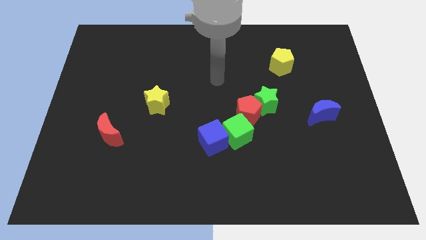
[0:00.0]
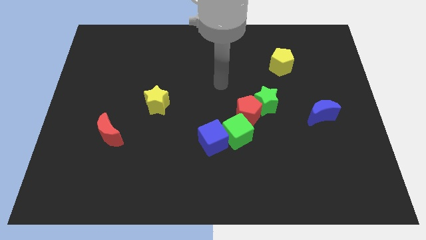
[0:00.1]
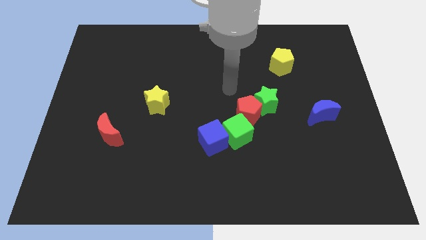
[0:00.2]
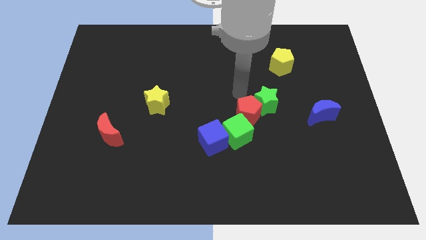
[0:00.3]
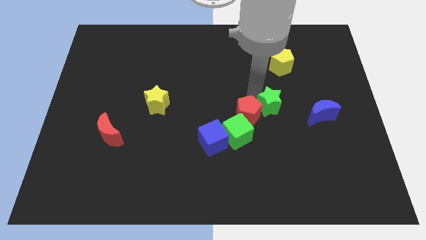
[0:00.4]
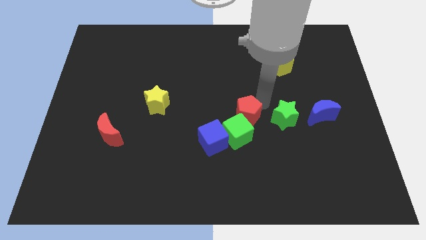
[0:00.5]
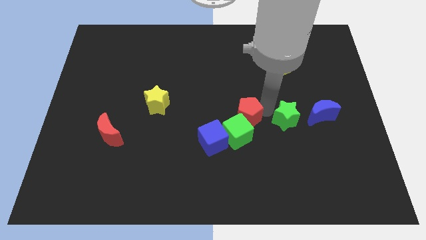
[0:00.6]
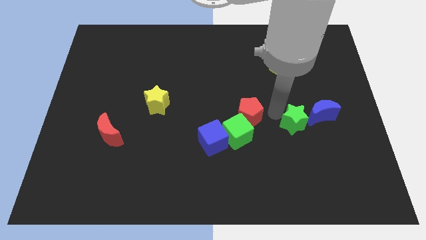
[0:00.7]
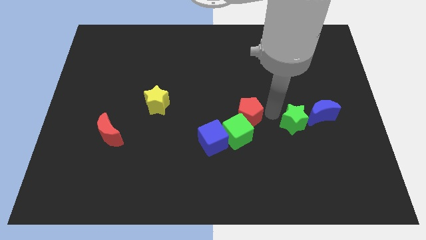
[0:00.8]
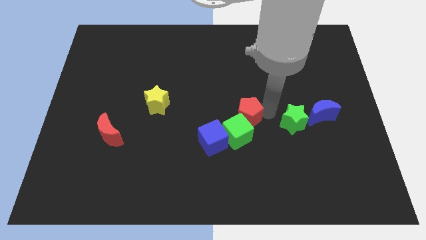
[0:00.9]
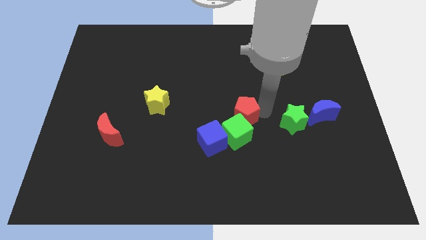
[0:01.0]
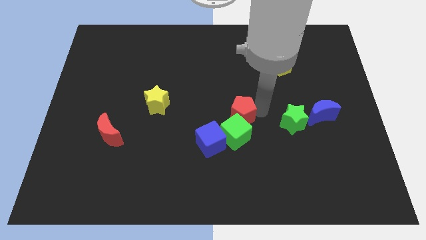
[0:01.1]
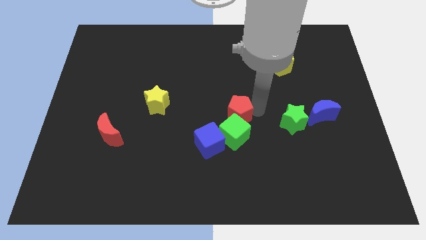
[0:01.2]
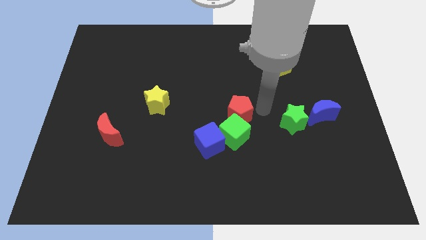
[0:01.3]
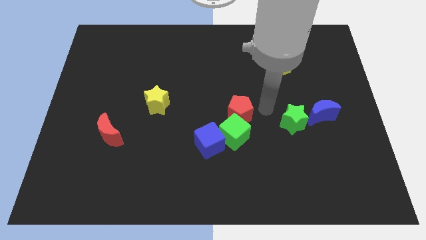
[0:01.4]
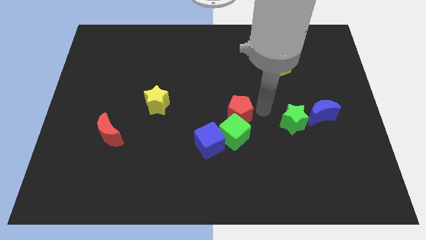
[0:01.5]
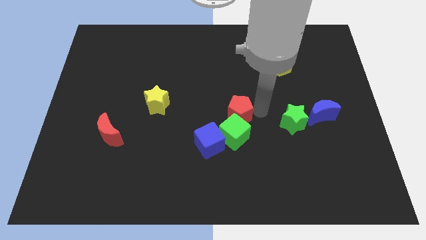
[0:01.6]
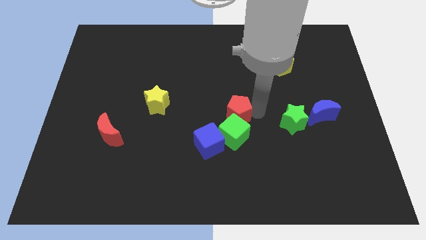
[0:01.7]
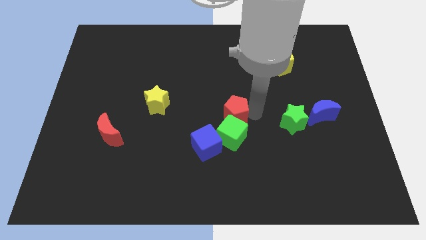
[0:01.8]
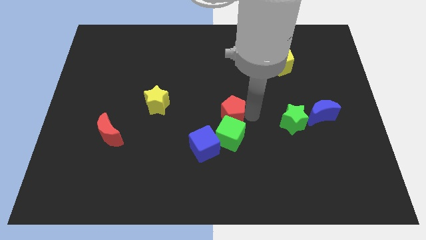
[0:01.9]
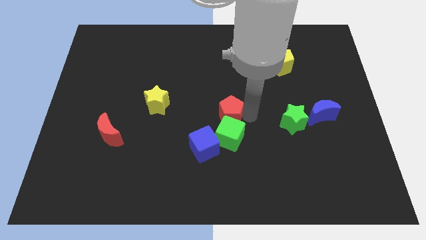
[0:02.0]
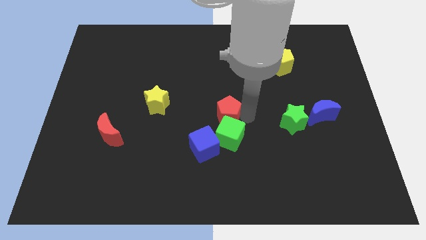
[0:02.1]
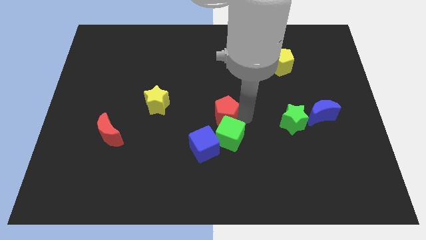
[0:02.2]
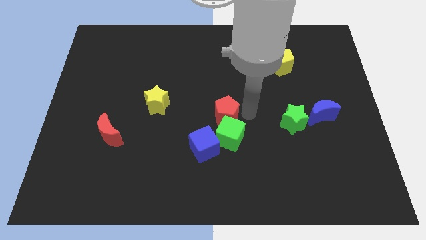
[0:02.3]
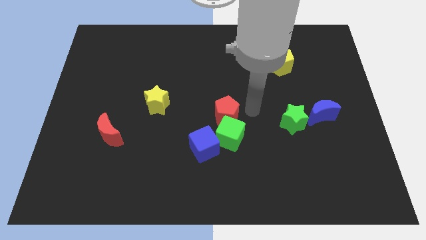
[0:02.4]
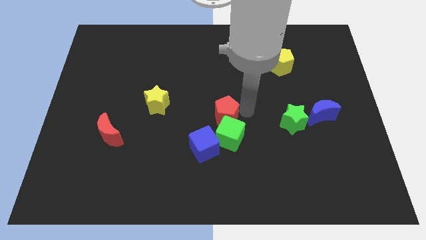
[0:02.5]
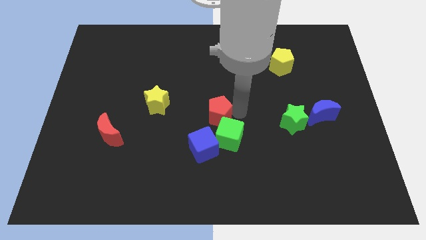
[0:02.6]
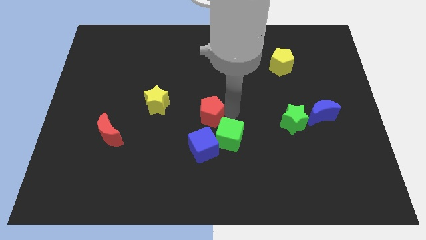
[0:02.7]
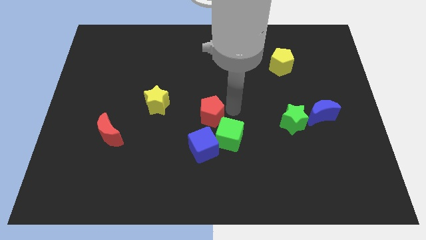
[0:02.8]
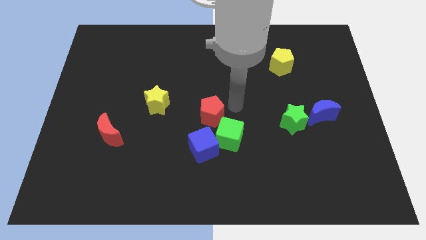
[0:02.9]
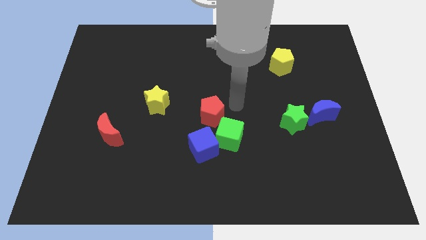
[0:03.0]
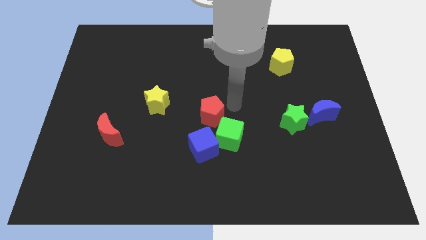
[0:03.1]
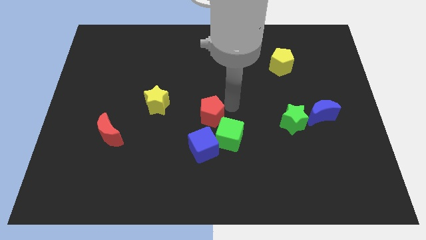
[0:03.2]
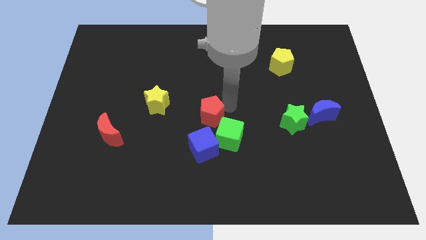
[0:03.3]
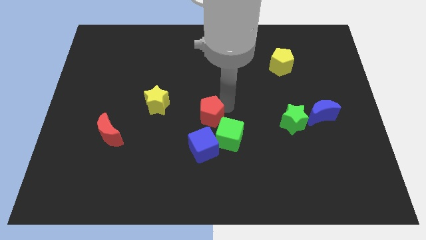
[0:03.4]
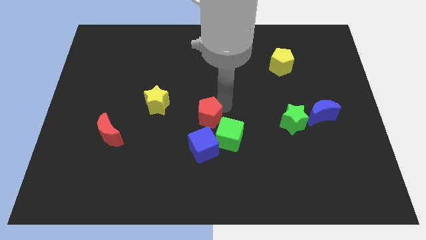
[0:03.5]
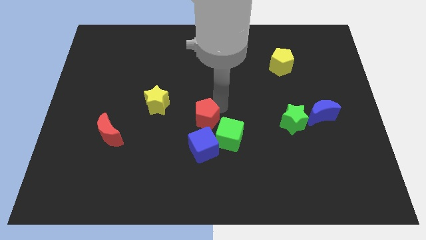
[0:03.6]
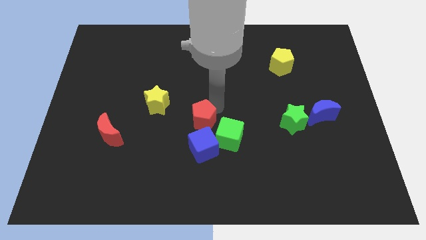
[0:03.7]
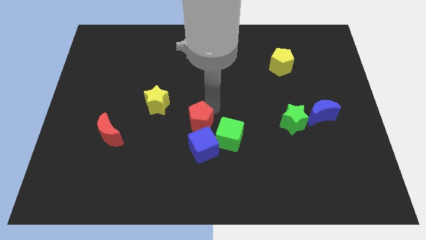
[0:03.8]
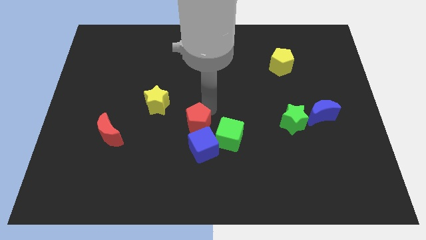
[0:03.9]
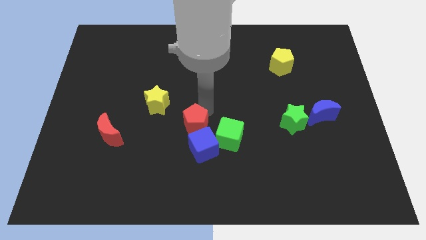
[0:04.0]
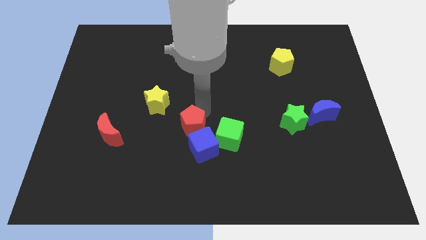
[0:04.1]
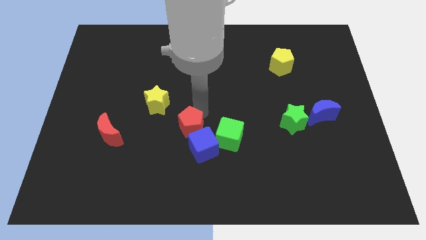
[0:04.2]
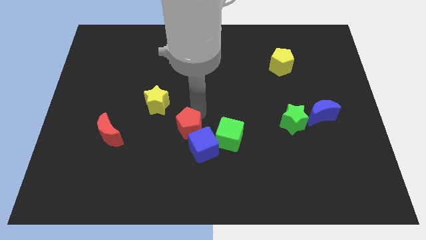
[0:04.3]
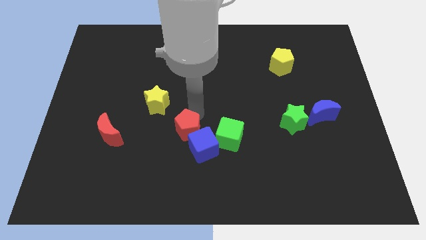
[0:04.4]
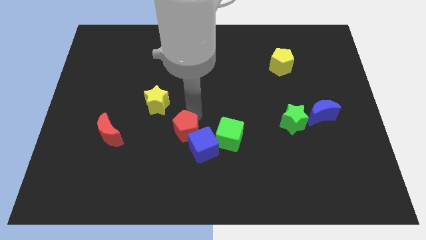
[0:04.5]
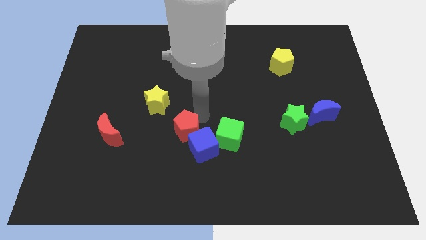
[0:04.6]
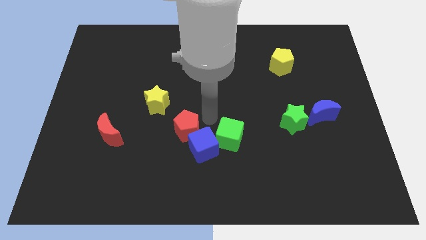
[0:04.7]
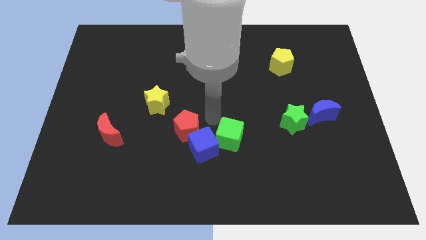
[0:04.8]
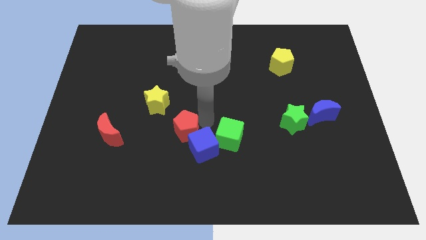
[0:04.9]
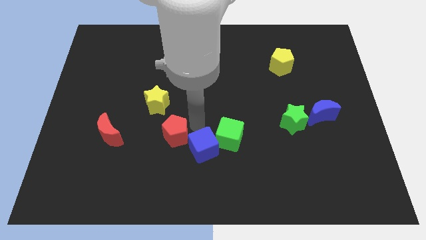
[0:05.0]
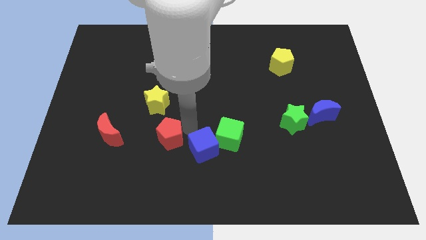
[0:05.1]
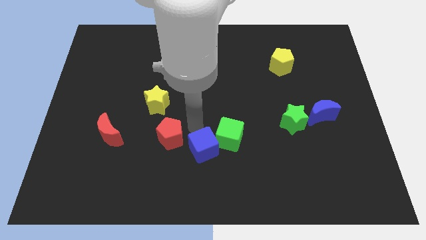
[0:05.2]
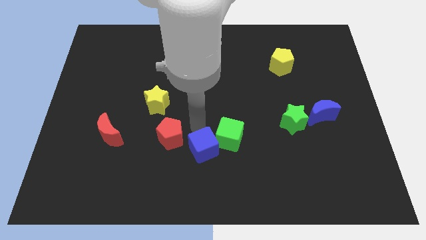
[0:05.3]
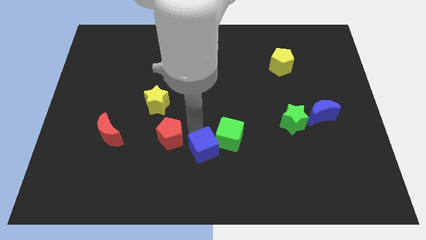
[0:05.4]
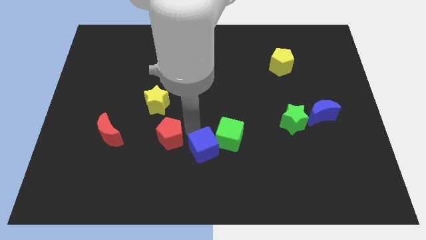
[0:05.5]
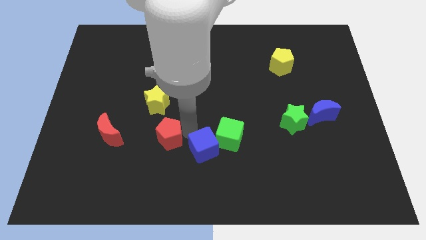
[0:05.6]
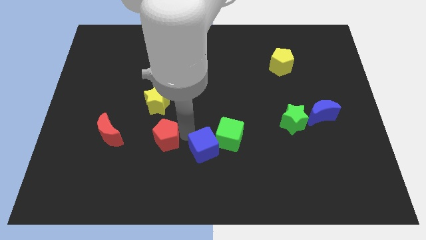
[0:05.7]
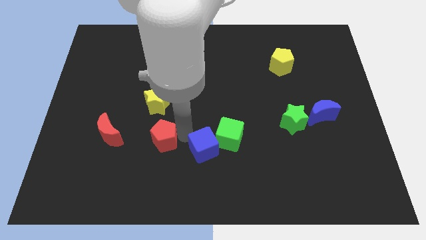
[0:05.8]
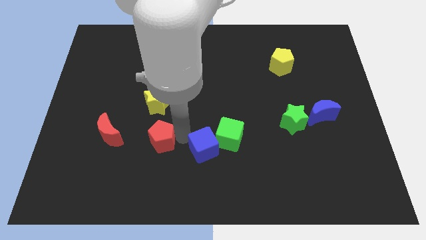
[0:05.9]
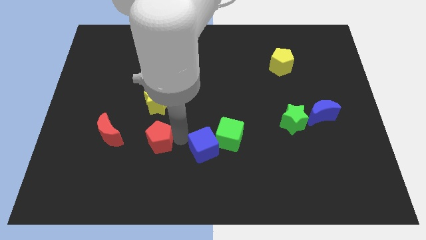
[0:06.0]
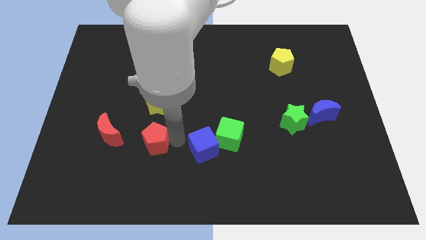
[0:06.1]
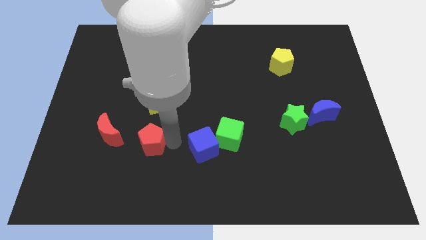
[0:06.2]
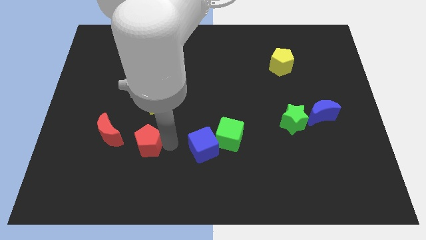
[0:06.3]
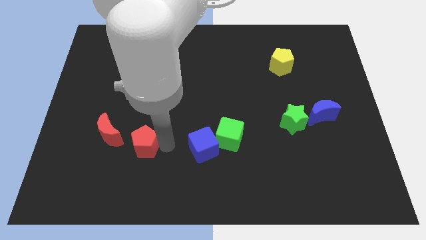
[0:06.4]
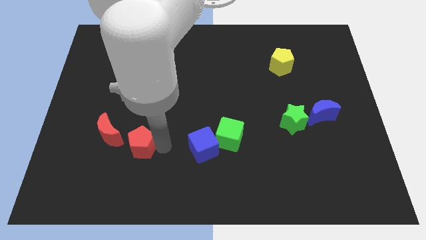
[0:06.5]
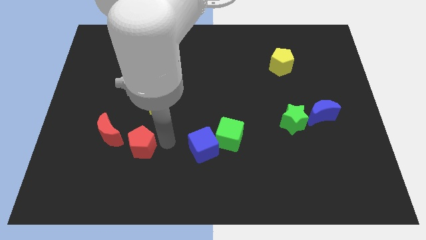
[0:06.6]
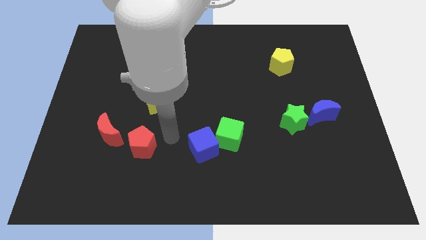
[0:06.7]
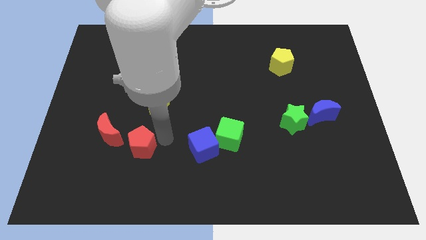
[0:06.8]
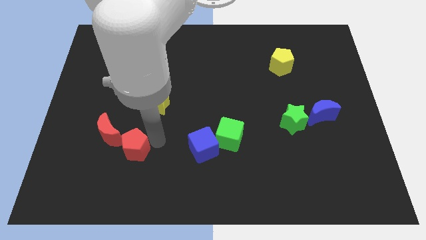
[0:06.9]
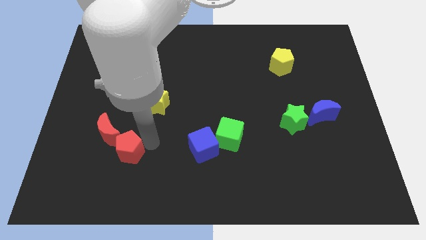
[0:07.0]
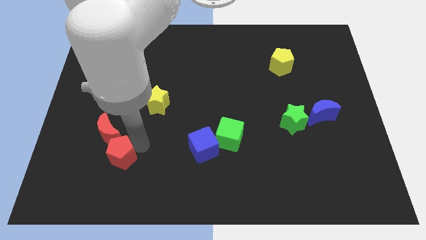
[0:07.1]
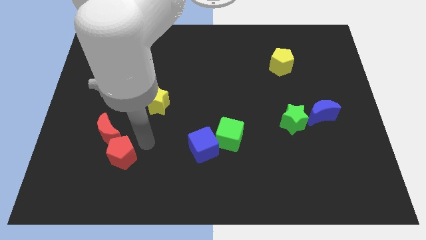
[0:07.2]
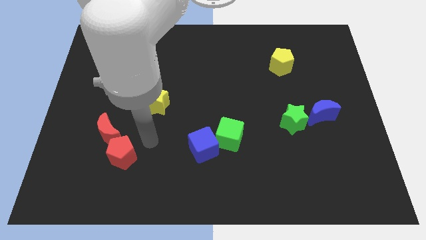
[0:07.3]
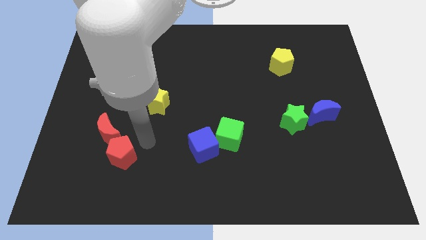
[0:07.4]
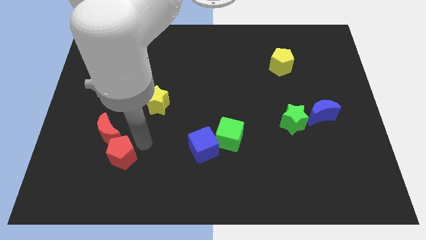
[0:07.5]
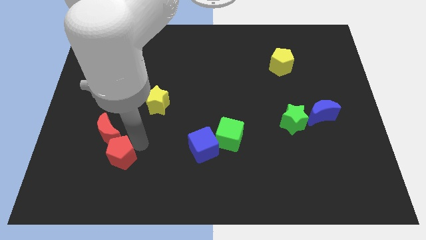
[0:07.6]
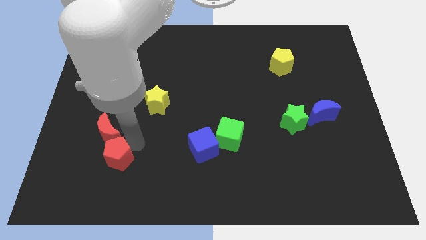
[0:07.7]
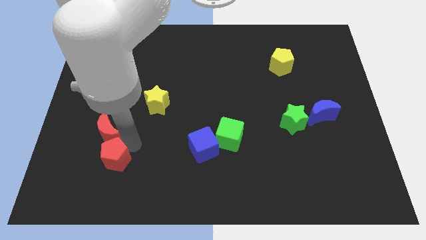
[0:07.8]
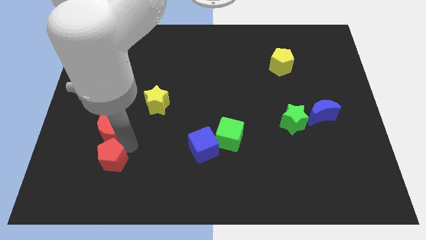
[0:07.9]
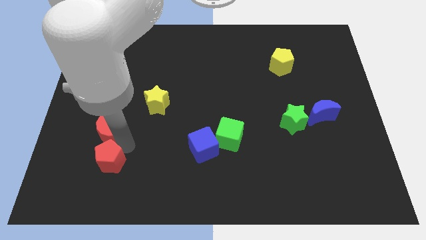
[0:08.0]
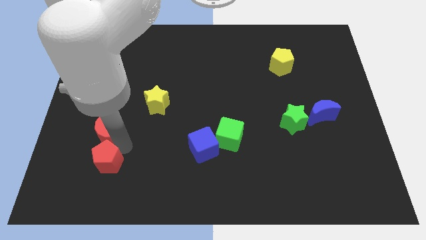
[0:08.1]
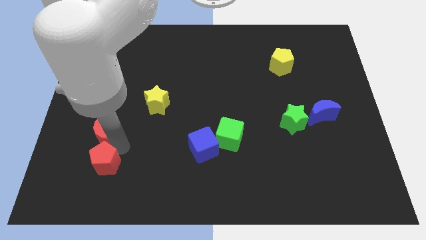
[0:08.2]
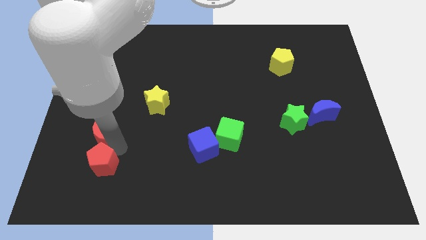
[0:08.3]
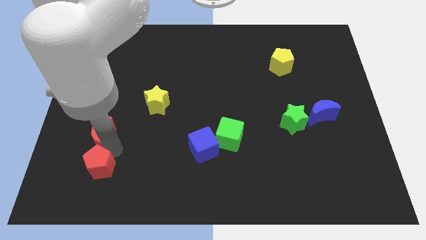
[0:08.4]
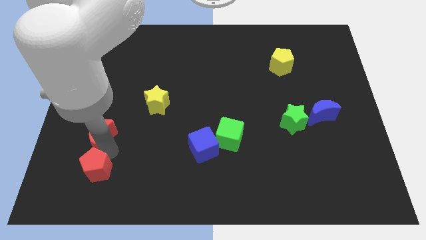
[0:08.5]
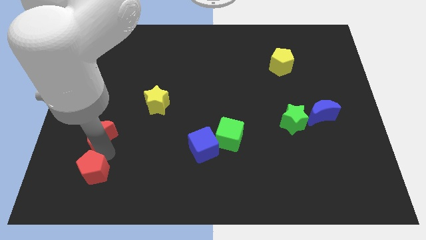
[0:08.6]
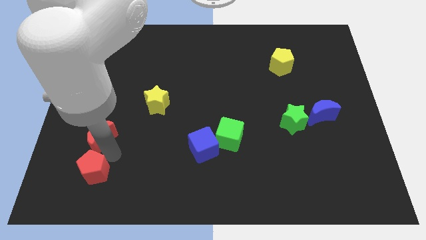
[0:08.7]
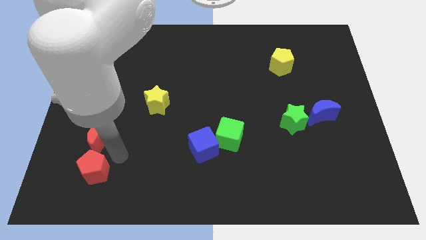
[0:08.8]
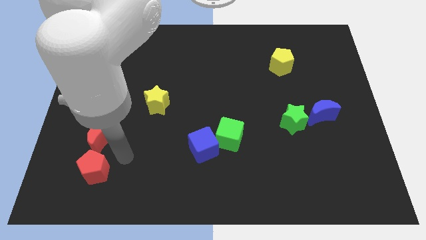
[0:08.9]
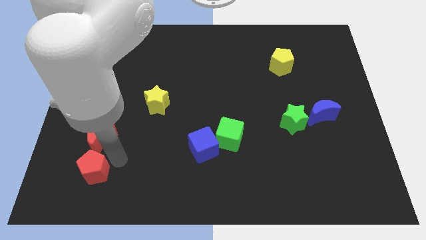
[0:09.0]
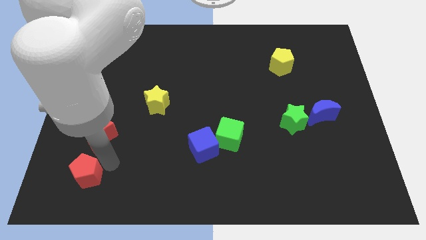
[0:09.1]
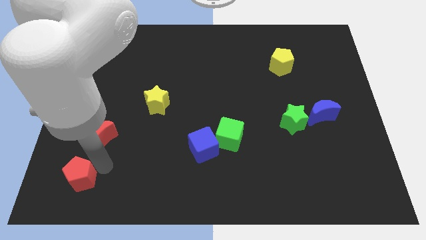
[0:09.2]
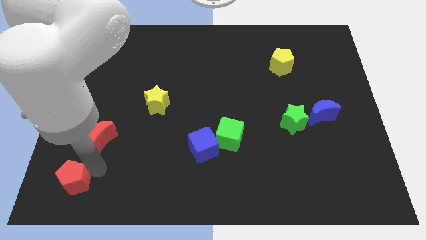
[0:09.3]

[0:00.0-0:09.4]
push the red pentagon to the bottom left
